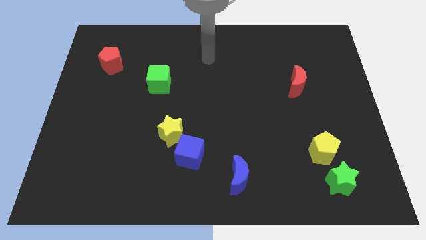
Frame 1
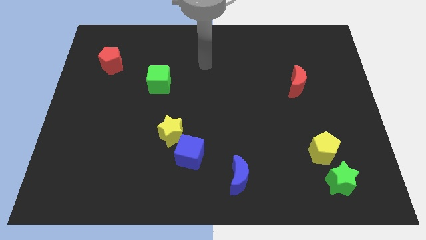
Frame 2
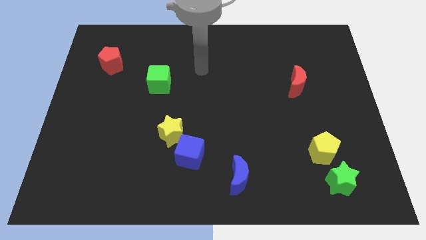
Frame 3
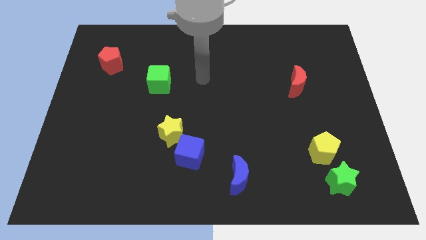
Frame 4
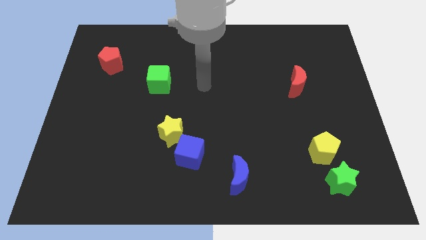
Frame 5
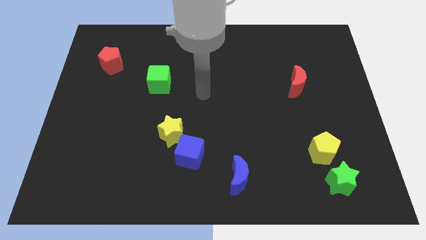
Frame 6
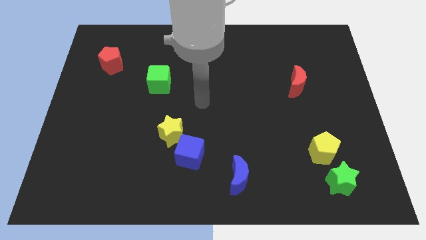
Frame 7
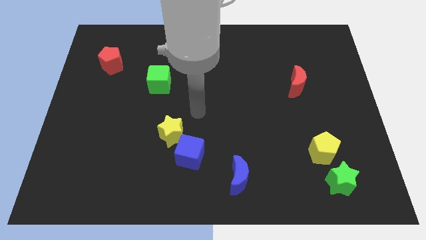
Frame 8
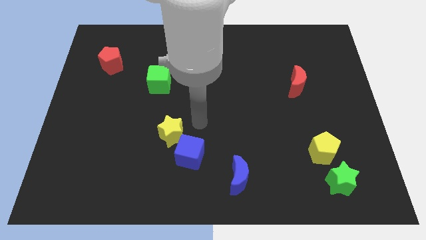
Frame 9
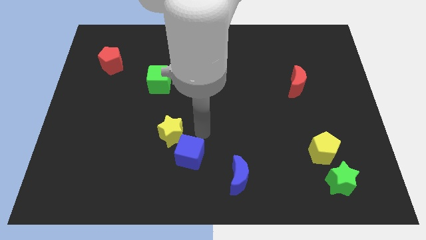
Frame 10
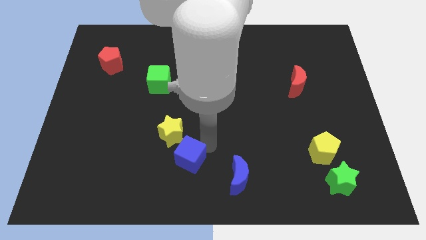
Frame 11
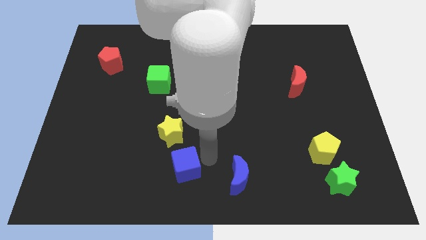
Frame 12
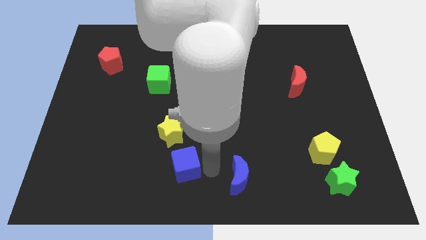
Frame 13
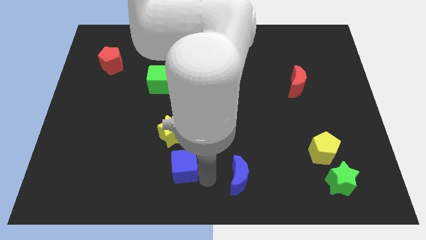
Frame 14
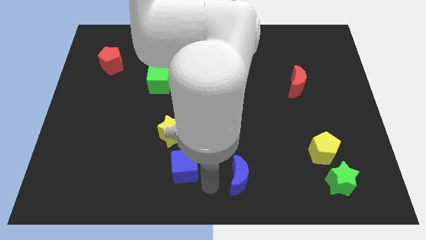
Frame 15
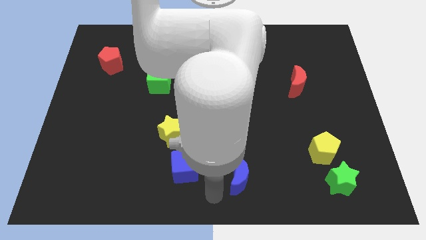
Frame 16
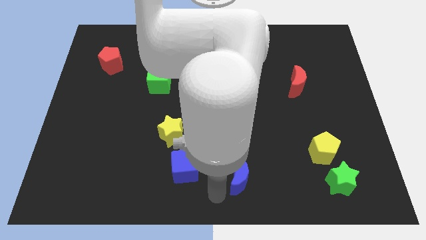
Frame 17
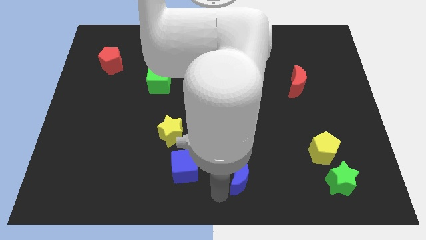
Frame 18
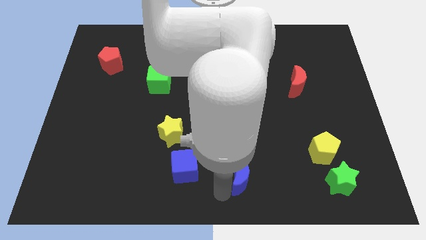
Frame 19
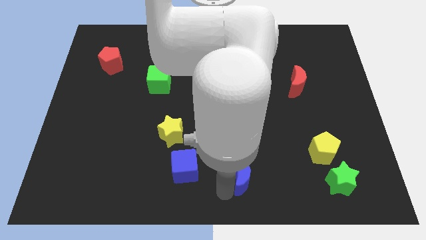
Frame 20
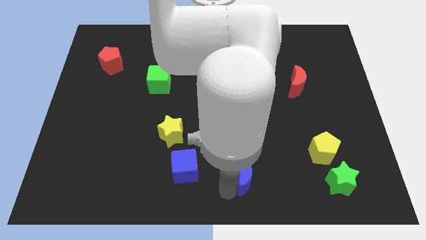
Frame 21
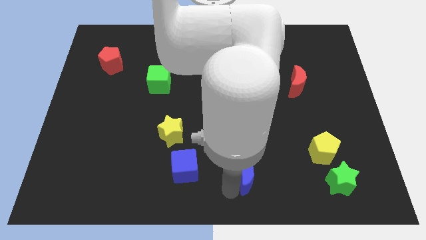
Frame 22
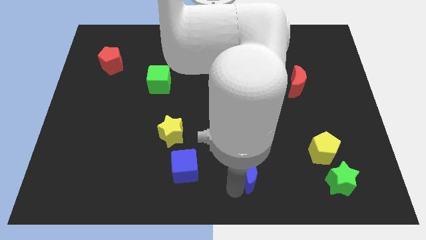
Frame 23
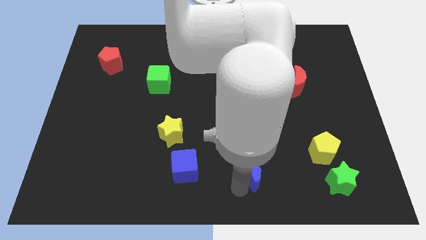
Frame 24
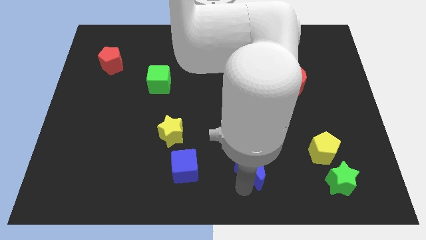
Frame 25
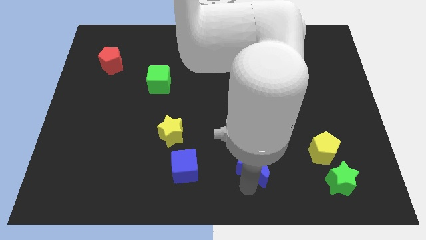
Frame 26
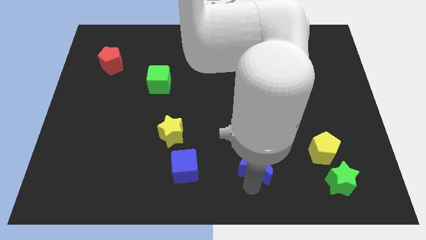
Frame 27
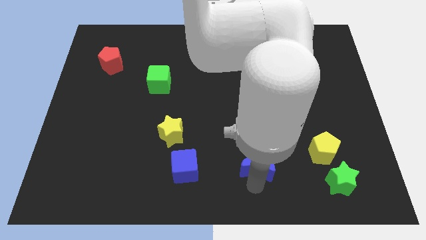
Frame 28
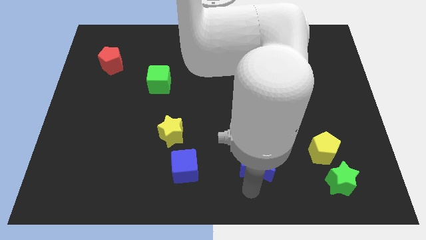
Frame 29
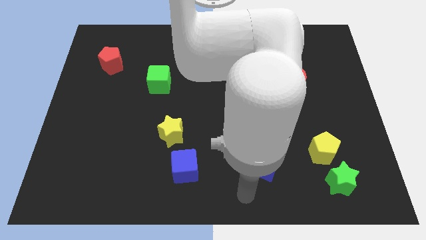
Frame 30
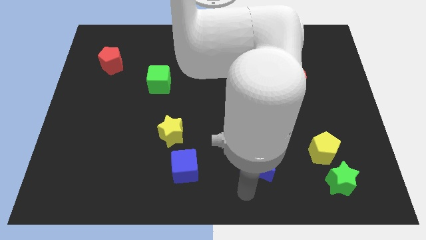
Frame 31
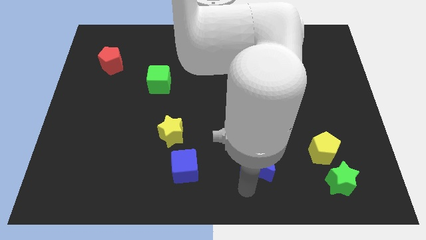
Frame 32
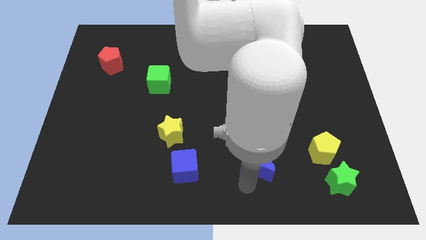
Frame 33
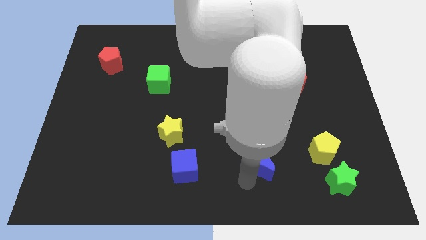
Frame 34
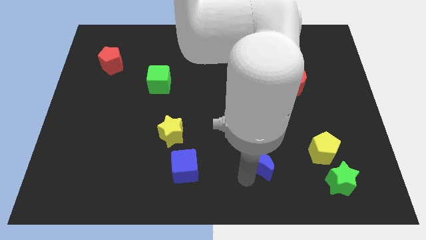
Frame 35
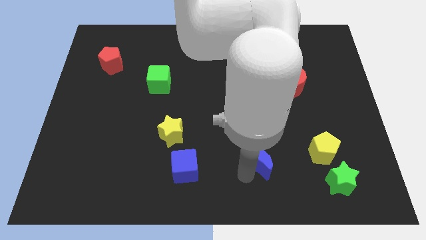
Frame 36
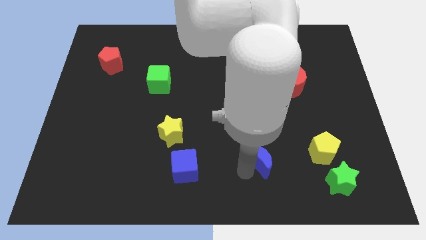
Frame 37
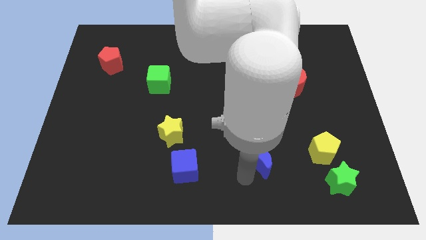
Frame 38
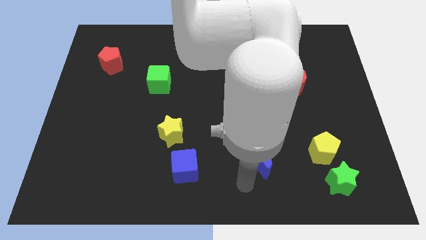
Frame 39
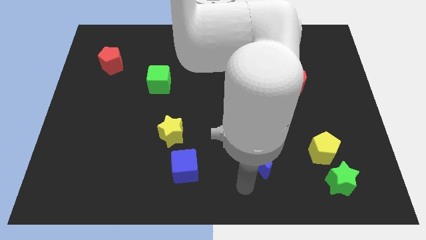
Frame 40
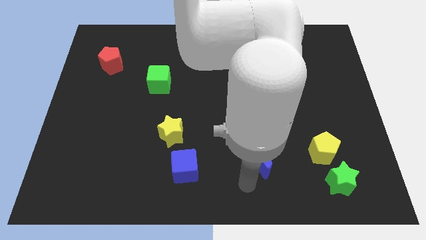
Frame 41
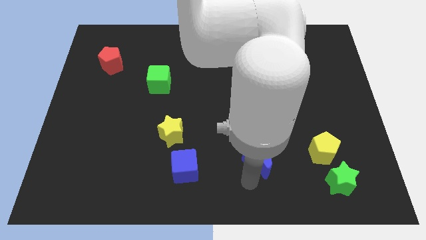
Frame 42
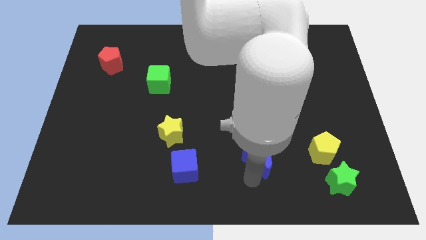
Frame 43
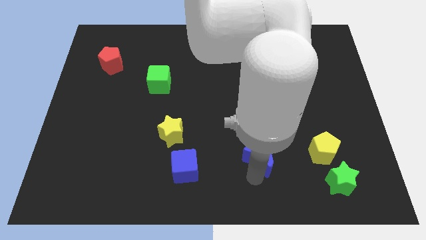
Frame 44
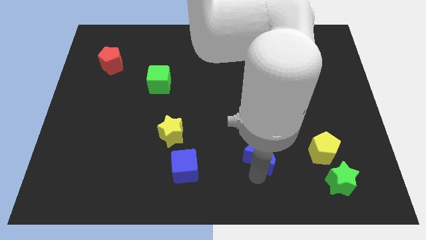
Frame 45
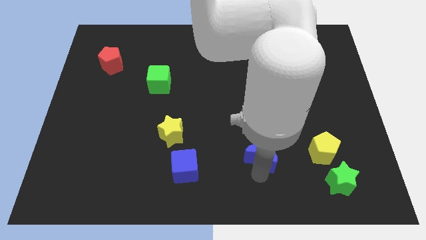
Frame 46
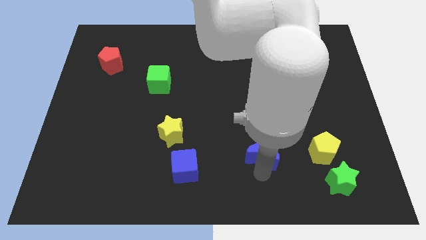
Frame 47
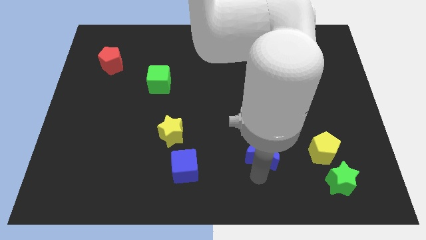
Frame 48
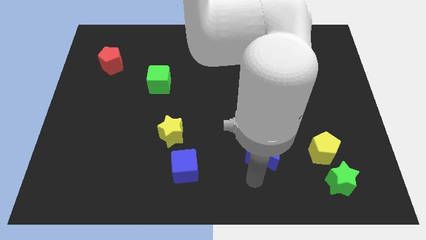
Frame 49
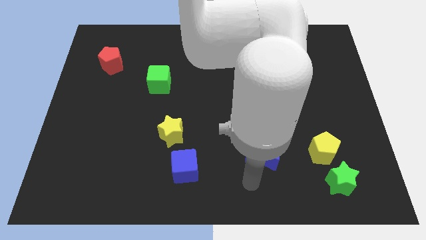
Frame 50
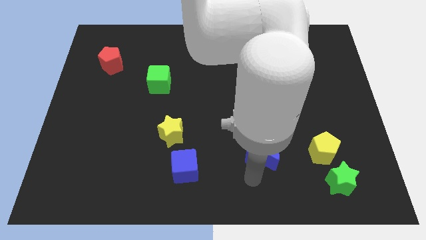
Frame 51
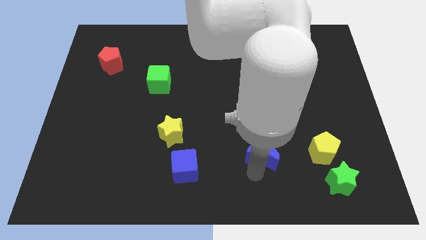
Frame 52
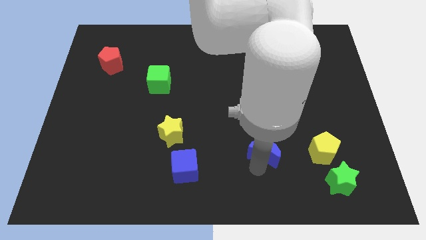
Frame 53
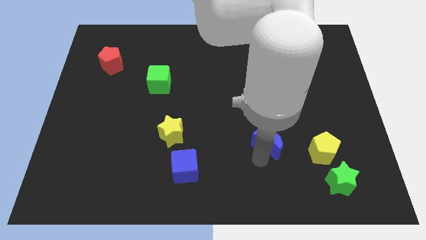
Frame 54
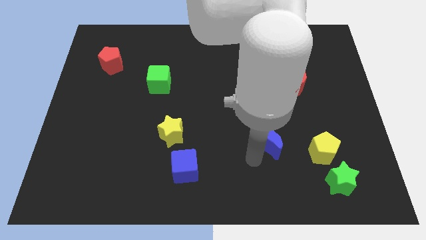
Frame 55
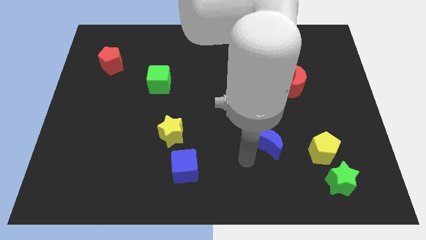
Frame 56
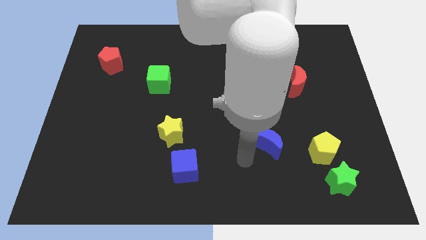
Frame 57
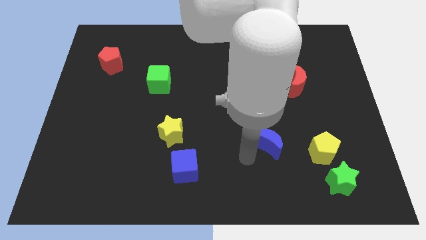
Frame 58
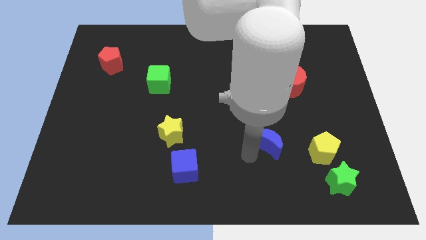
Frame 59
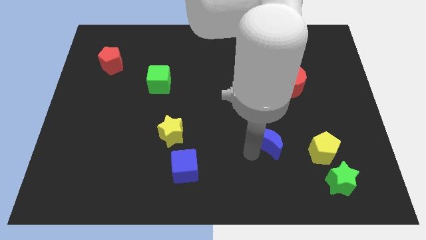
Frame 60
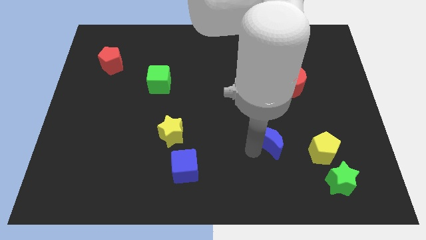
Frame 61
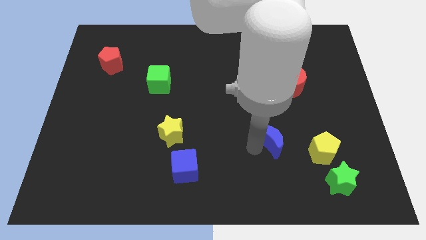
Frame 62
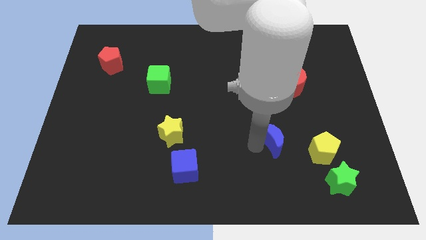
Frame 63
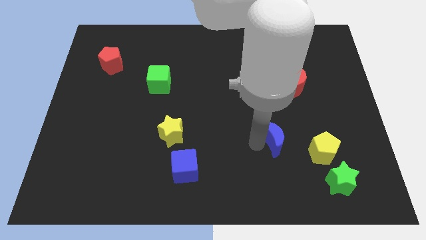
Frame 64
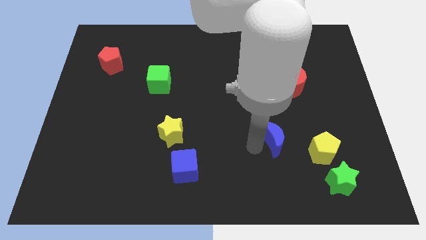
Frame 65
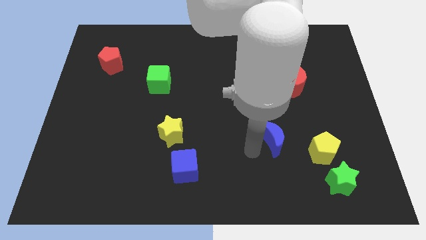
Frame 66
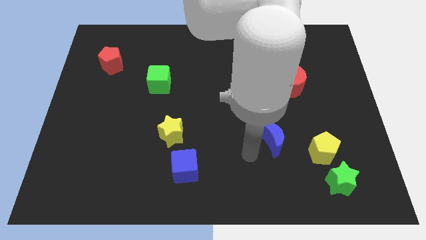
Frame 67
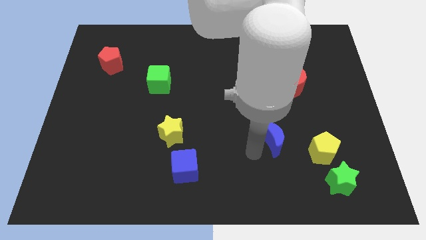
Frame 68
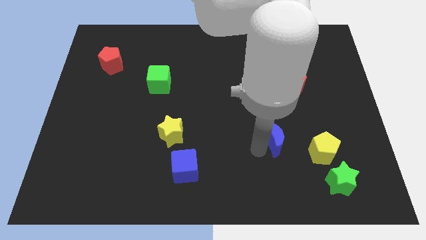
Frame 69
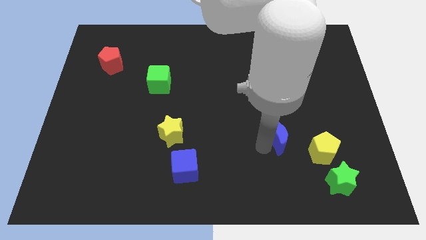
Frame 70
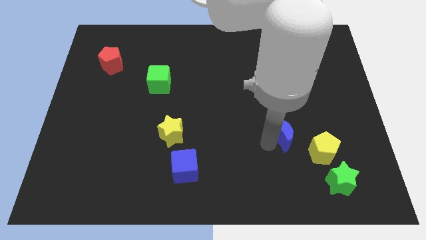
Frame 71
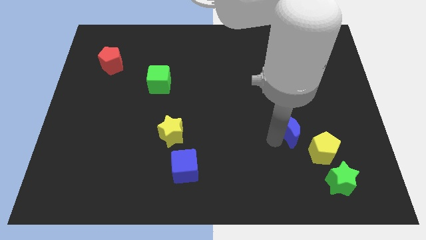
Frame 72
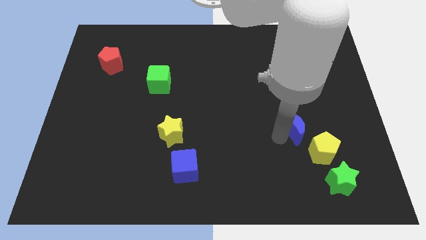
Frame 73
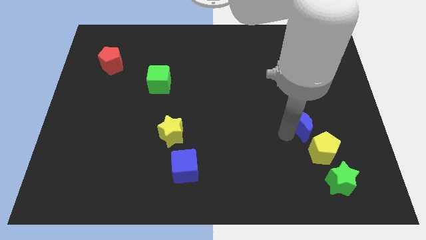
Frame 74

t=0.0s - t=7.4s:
push the blue moon to the top of the yellow pentagon
